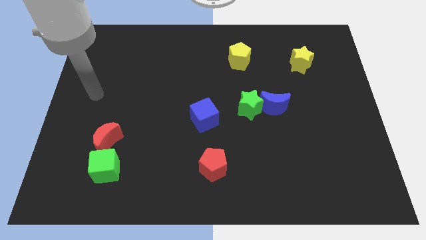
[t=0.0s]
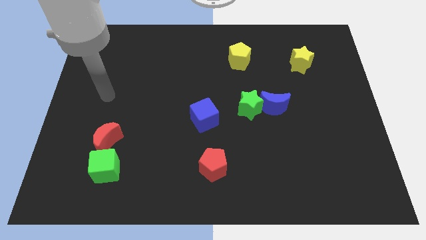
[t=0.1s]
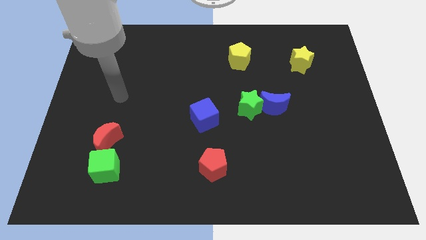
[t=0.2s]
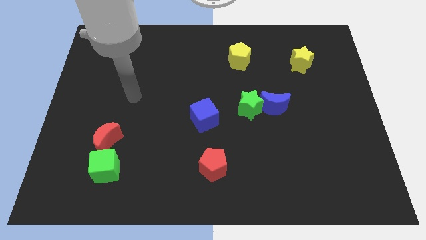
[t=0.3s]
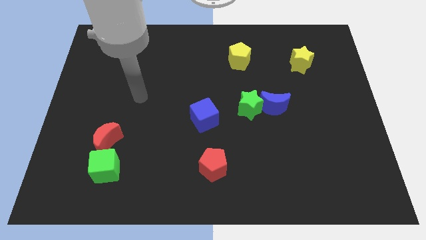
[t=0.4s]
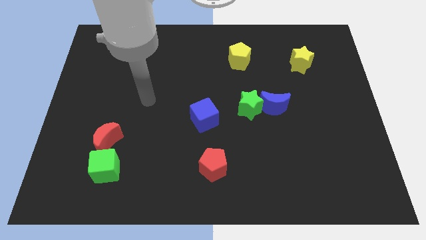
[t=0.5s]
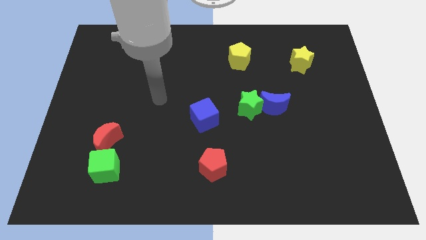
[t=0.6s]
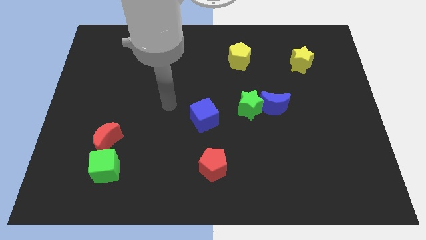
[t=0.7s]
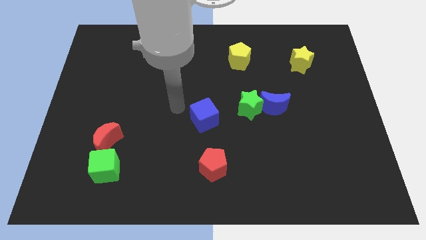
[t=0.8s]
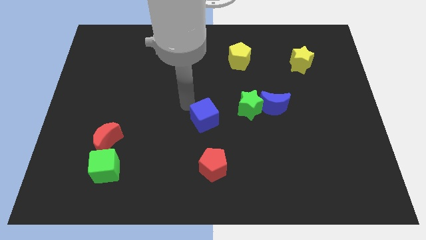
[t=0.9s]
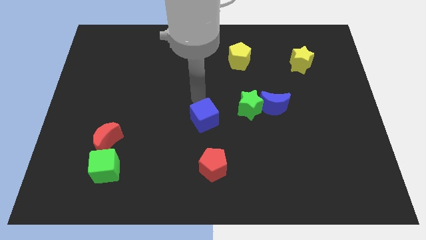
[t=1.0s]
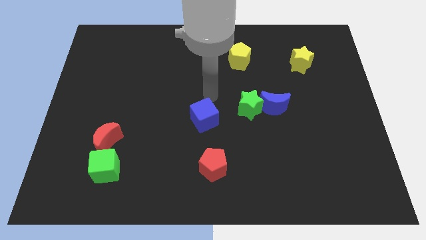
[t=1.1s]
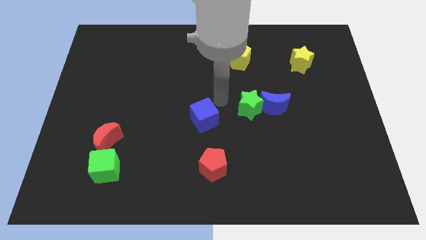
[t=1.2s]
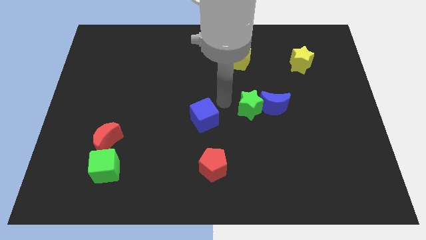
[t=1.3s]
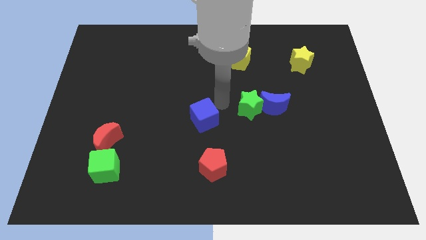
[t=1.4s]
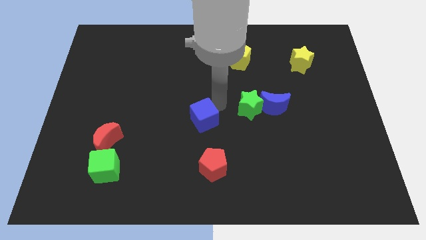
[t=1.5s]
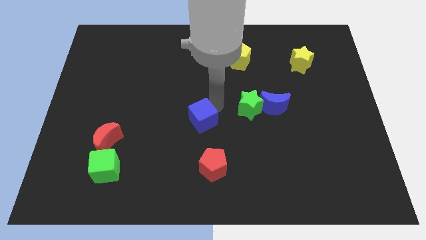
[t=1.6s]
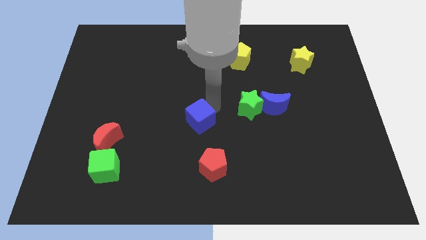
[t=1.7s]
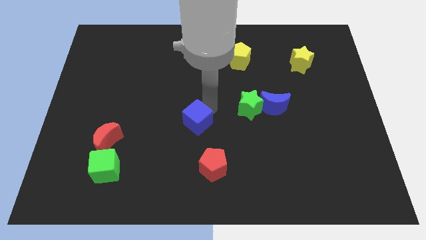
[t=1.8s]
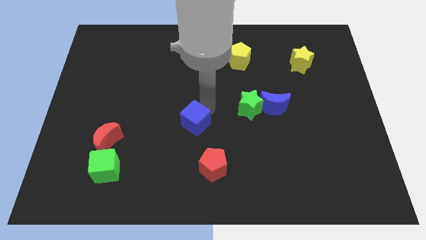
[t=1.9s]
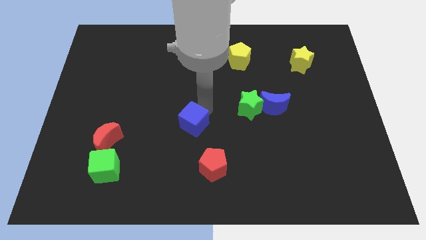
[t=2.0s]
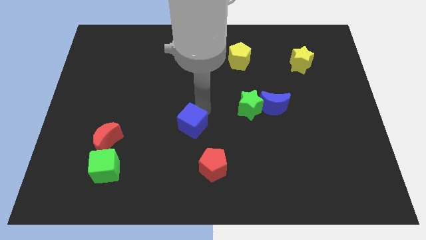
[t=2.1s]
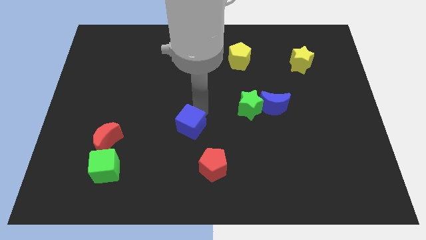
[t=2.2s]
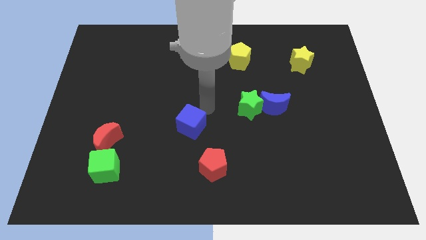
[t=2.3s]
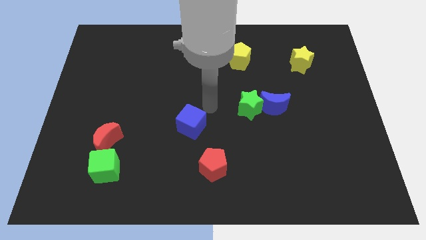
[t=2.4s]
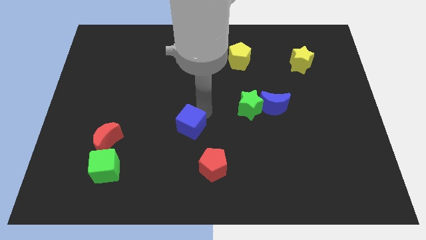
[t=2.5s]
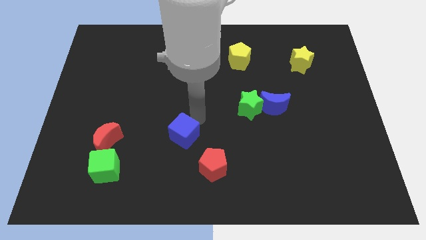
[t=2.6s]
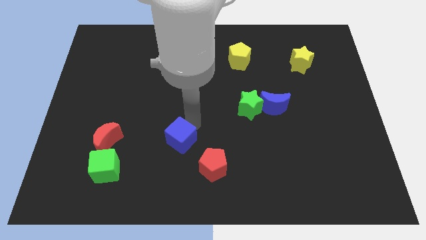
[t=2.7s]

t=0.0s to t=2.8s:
move the blue cube a little bit down and then to the left

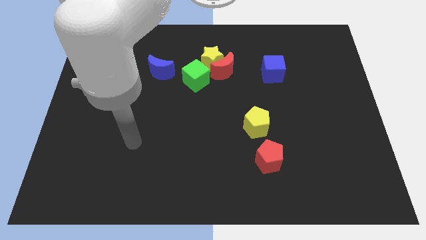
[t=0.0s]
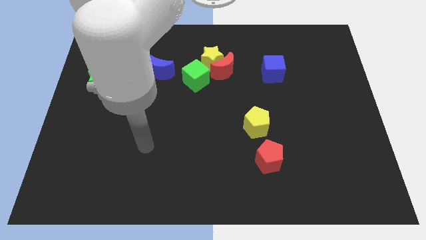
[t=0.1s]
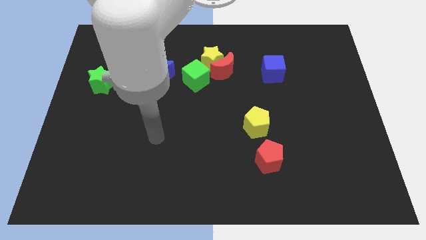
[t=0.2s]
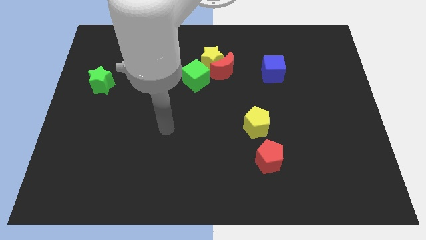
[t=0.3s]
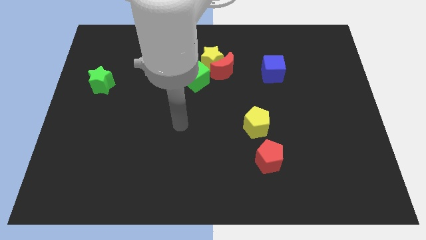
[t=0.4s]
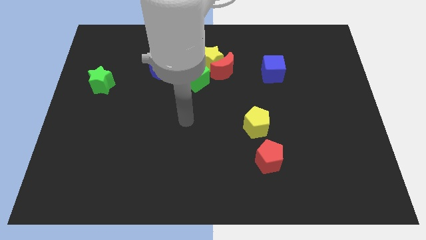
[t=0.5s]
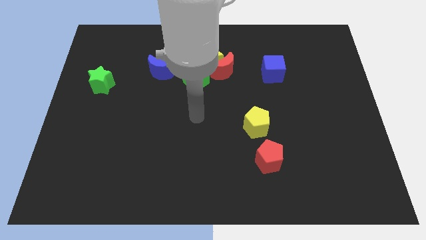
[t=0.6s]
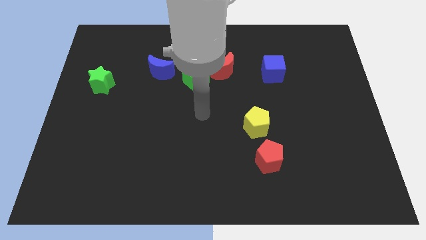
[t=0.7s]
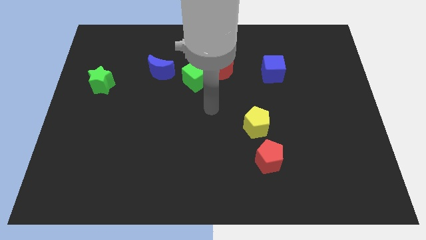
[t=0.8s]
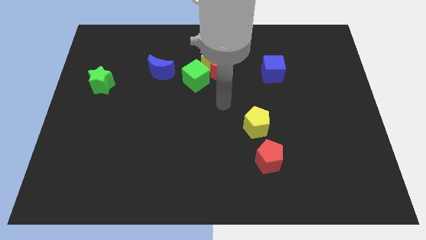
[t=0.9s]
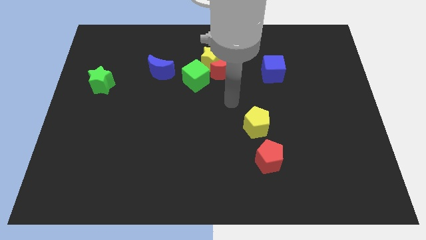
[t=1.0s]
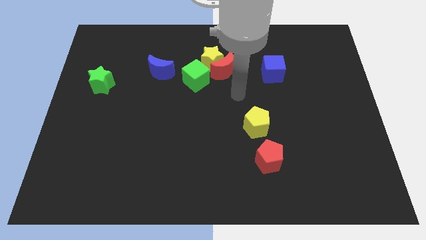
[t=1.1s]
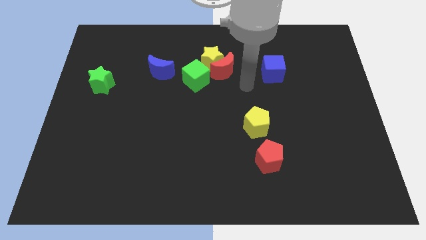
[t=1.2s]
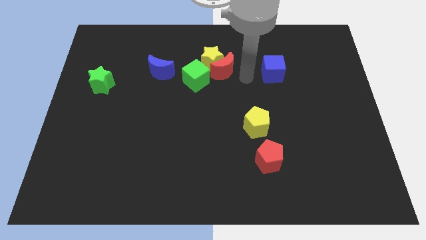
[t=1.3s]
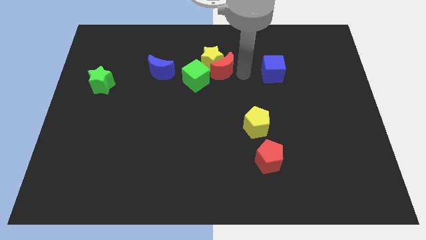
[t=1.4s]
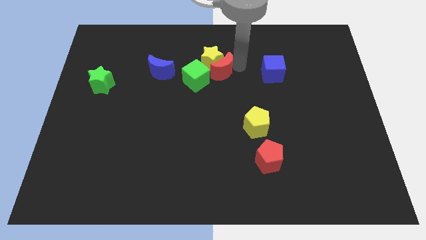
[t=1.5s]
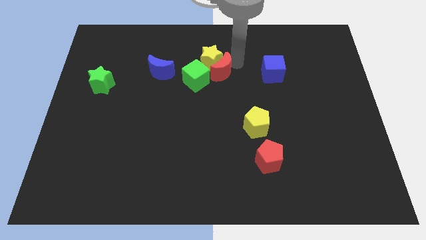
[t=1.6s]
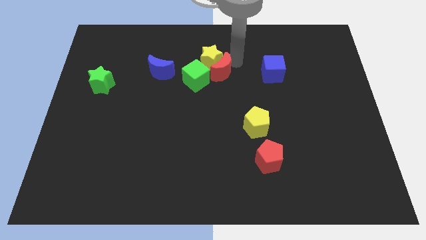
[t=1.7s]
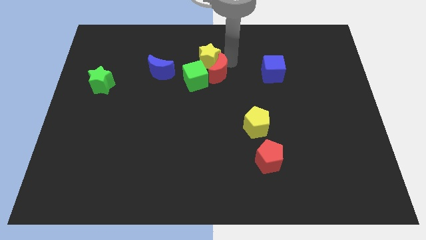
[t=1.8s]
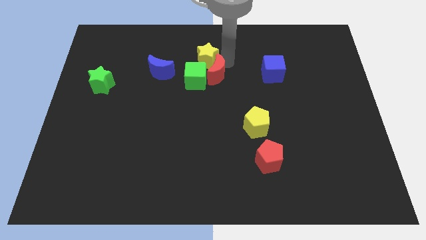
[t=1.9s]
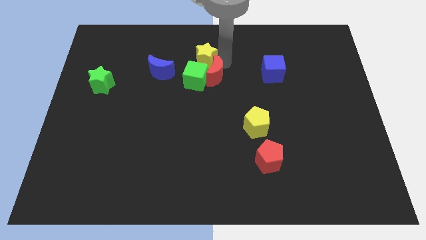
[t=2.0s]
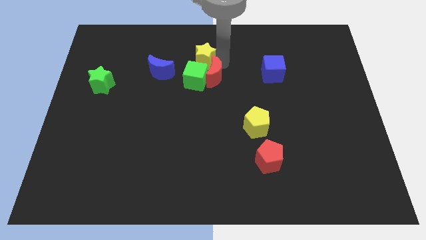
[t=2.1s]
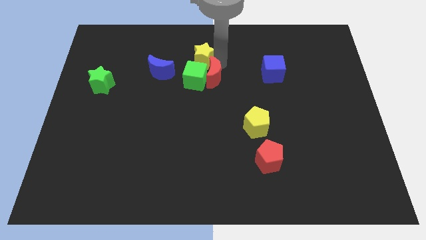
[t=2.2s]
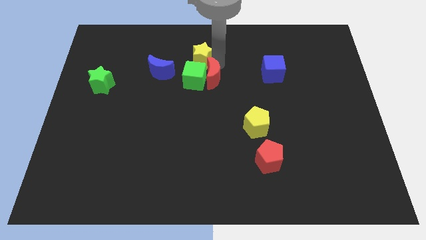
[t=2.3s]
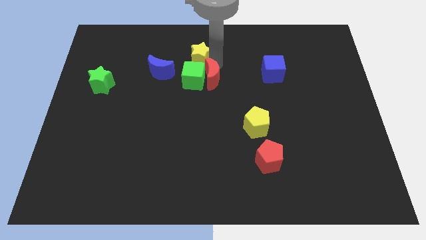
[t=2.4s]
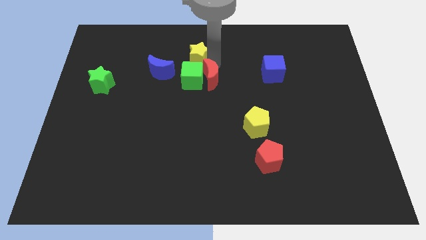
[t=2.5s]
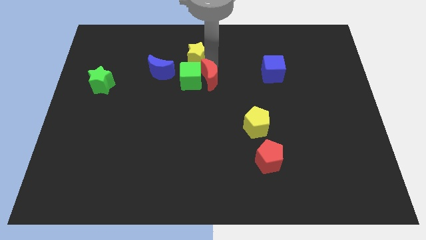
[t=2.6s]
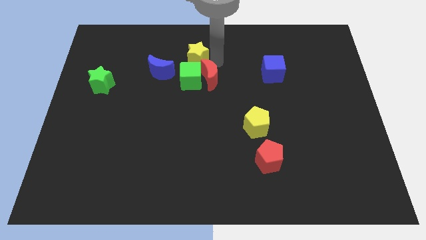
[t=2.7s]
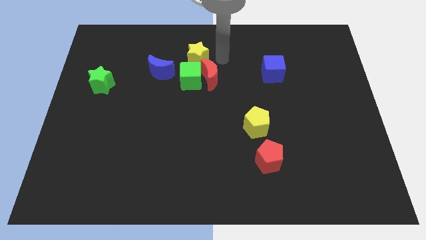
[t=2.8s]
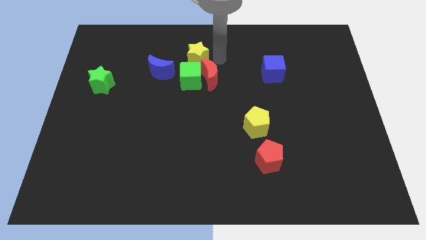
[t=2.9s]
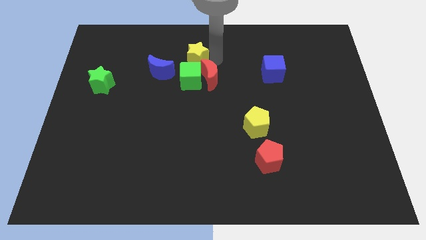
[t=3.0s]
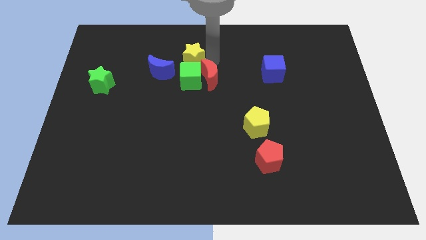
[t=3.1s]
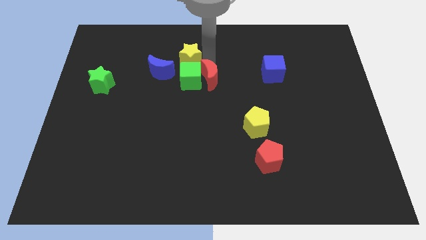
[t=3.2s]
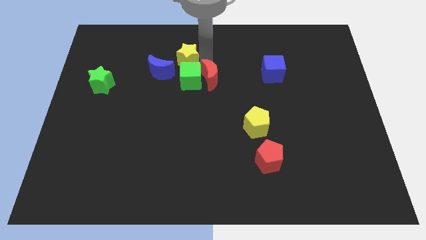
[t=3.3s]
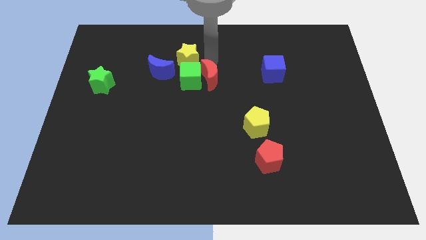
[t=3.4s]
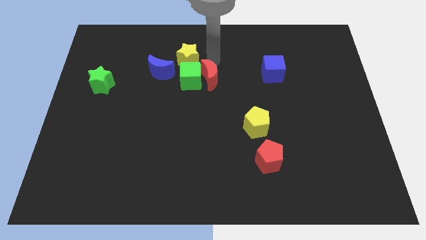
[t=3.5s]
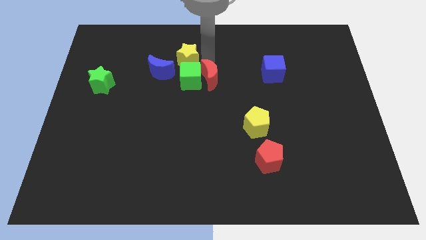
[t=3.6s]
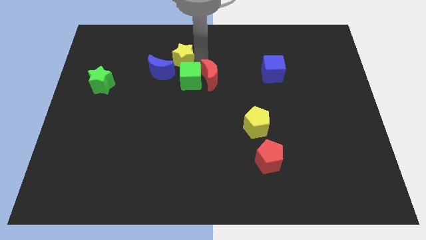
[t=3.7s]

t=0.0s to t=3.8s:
slightly slide the yellow star left

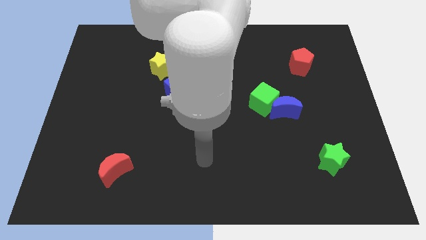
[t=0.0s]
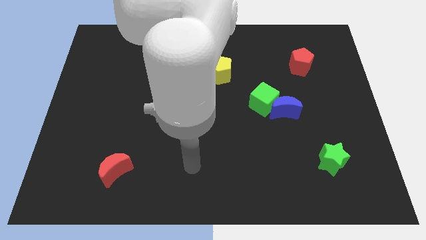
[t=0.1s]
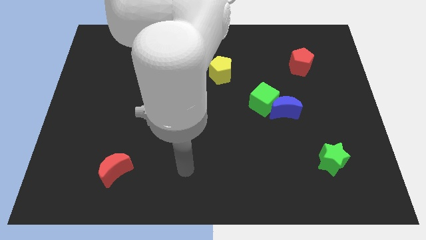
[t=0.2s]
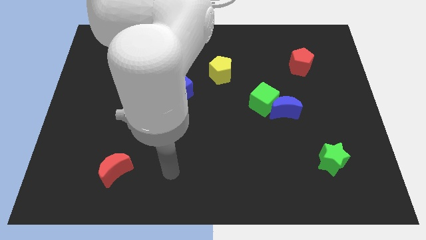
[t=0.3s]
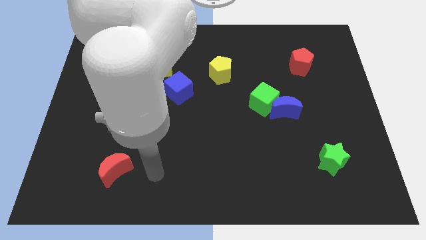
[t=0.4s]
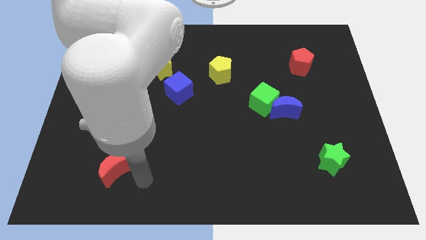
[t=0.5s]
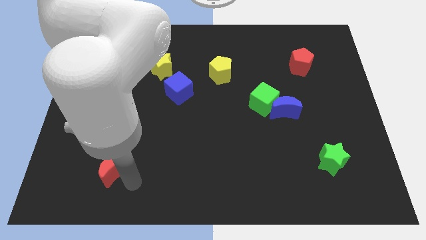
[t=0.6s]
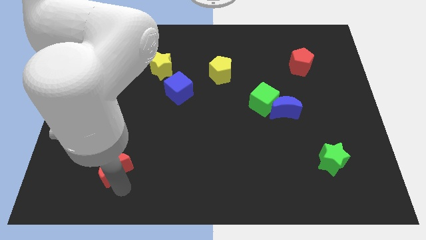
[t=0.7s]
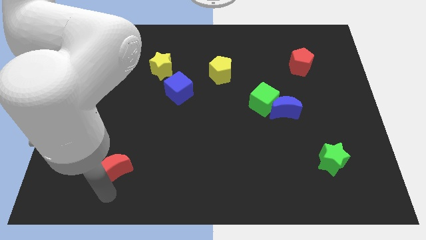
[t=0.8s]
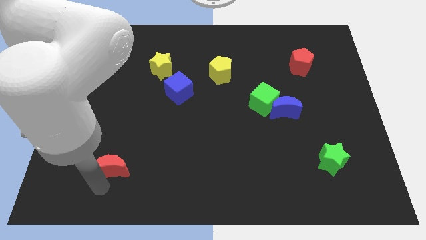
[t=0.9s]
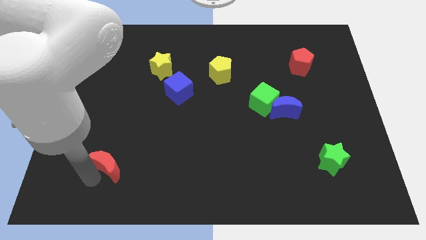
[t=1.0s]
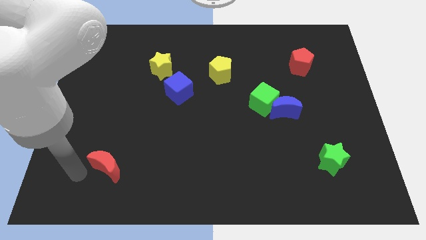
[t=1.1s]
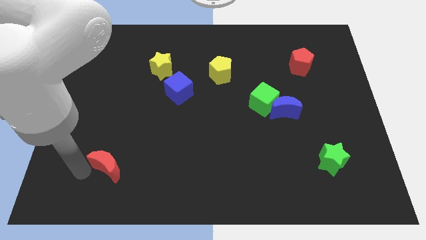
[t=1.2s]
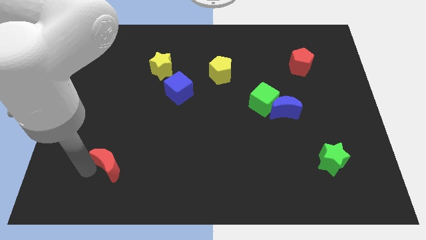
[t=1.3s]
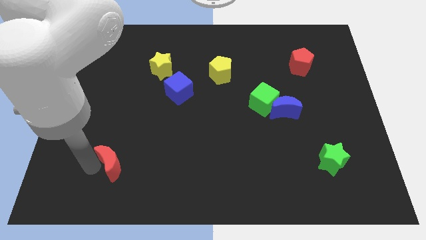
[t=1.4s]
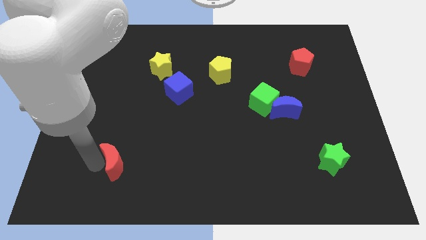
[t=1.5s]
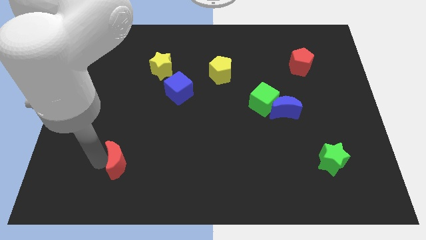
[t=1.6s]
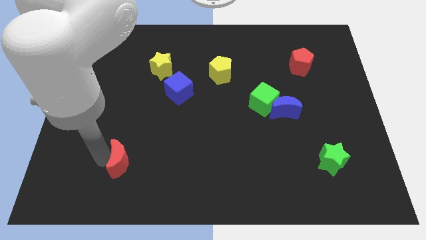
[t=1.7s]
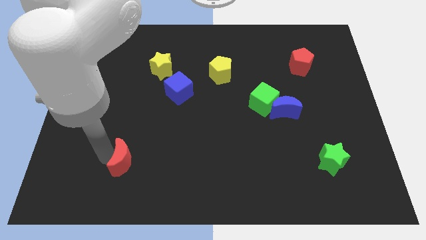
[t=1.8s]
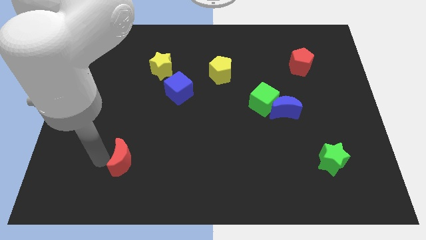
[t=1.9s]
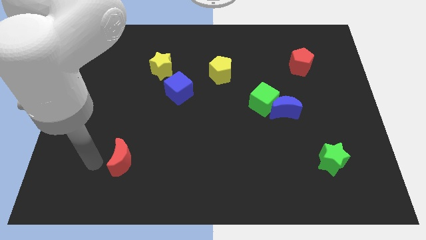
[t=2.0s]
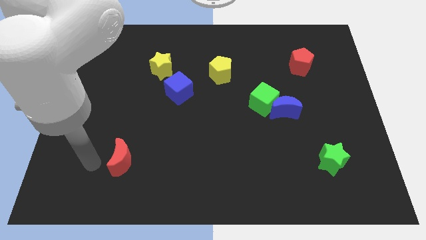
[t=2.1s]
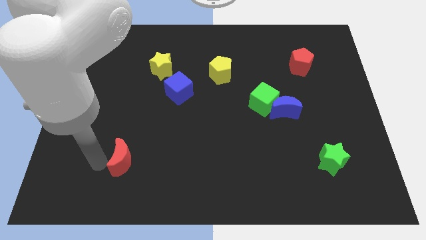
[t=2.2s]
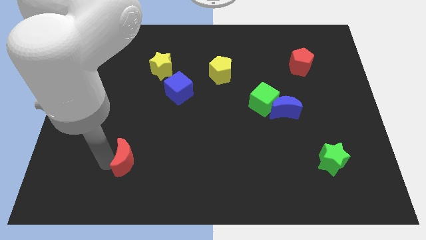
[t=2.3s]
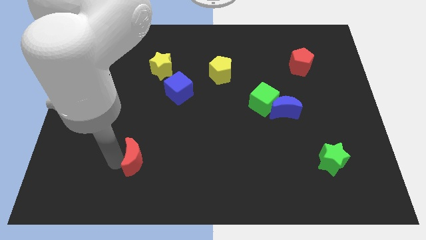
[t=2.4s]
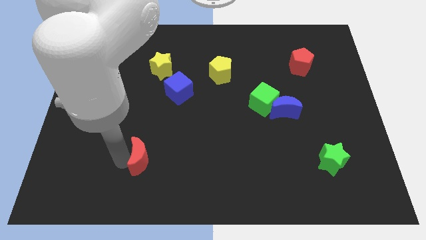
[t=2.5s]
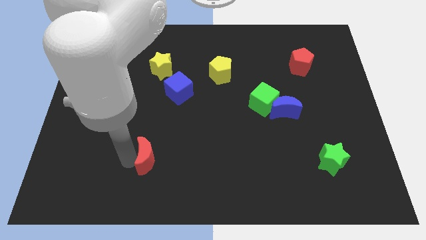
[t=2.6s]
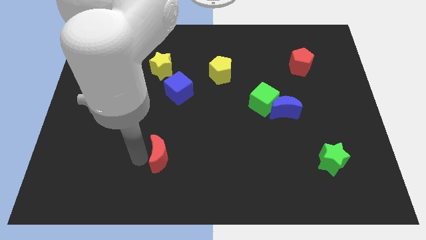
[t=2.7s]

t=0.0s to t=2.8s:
slide the red moon right a bit
